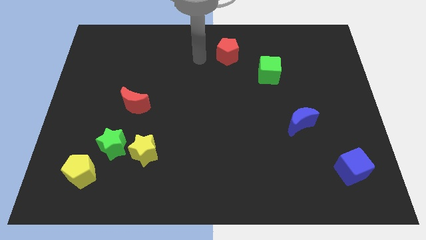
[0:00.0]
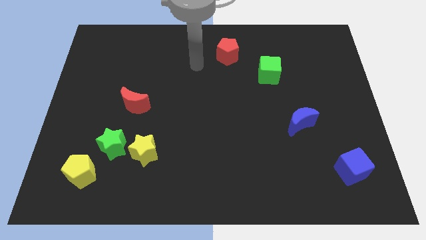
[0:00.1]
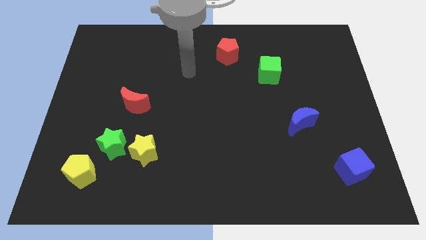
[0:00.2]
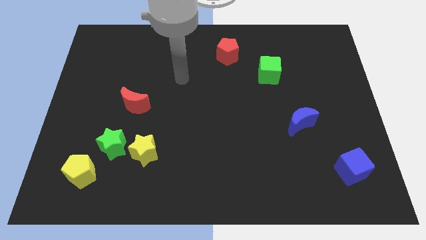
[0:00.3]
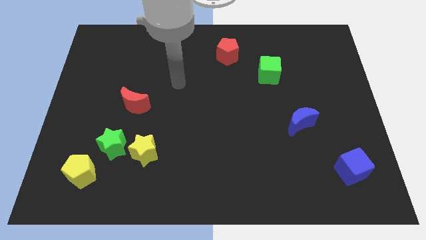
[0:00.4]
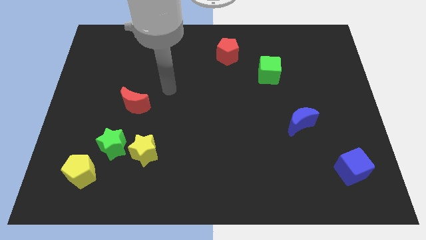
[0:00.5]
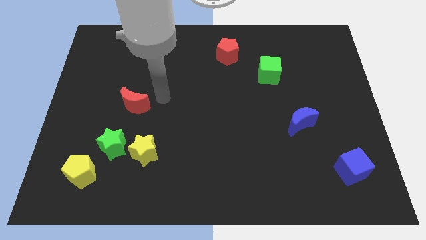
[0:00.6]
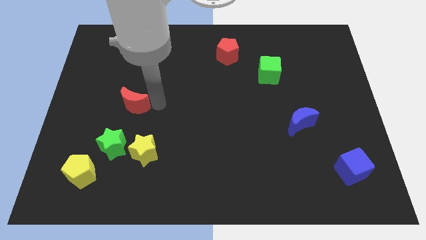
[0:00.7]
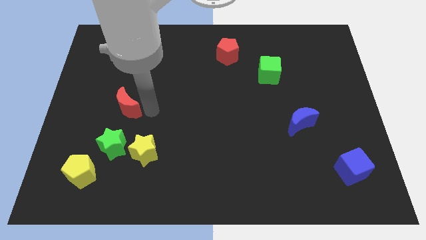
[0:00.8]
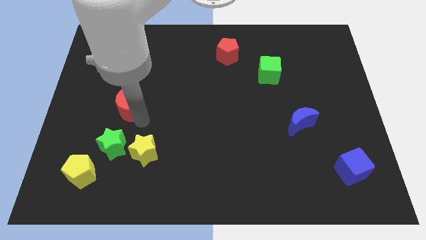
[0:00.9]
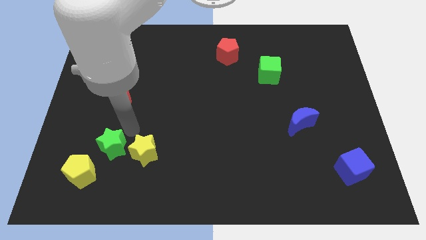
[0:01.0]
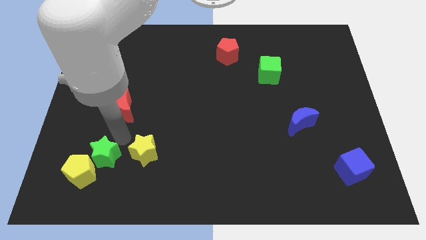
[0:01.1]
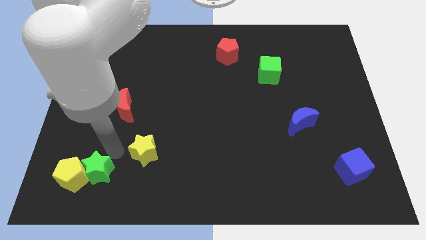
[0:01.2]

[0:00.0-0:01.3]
pull the yellow star apart from the green star

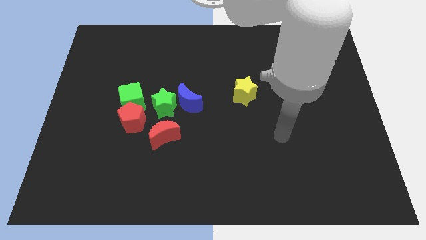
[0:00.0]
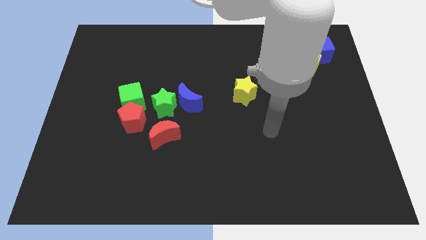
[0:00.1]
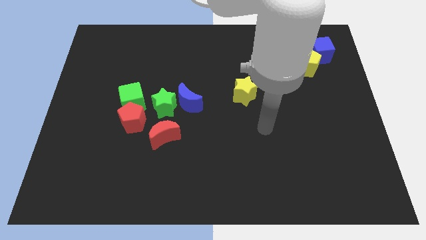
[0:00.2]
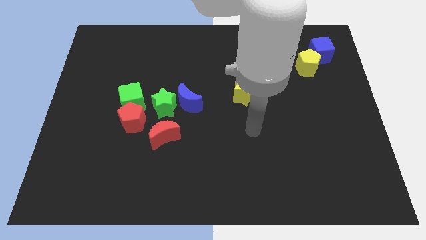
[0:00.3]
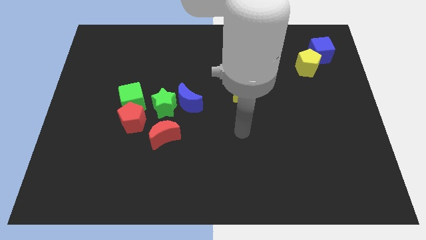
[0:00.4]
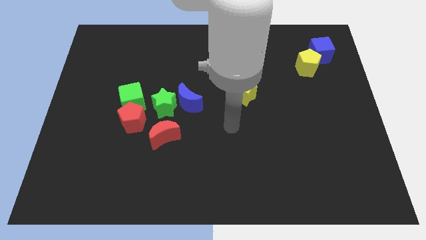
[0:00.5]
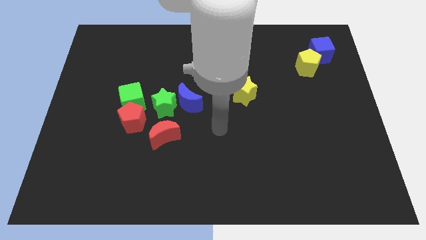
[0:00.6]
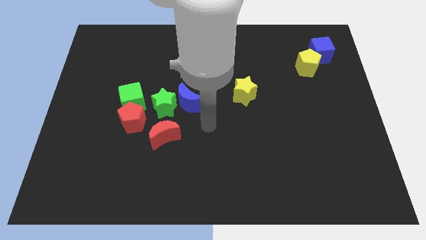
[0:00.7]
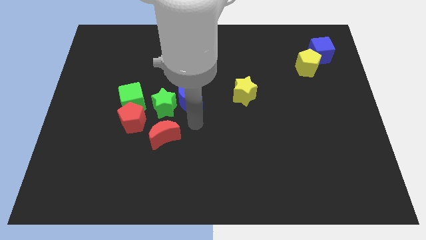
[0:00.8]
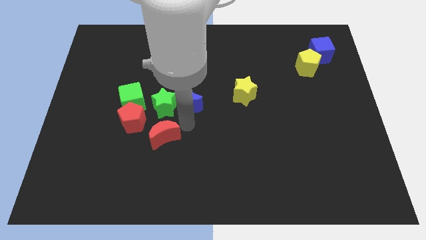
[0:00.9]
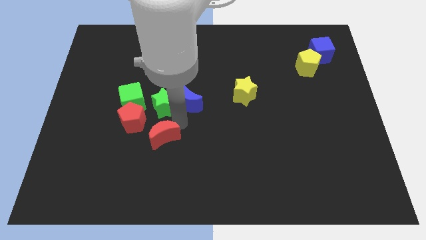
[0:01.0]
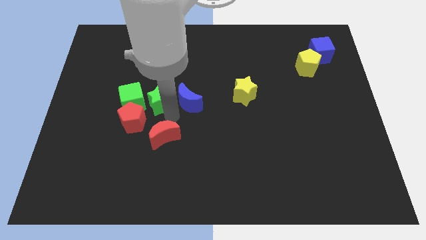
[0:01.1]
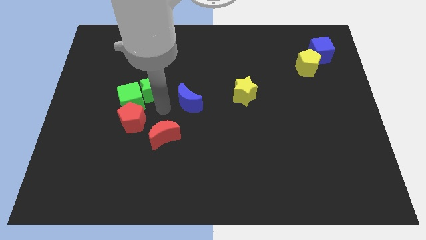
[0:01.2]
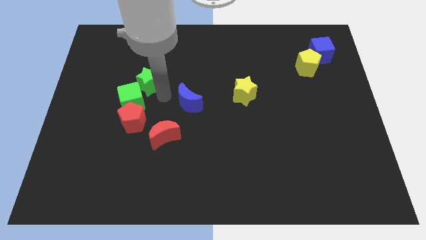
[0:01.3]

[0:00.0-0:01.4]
move the blue moon away from the green star

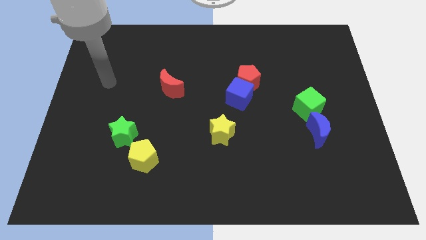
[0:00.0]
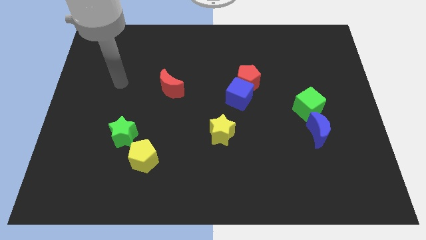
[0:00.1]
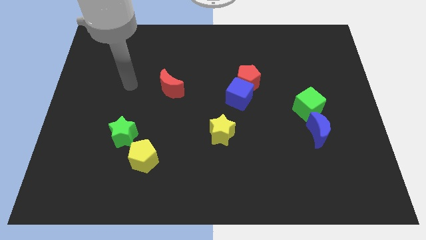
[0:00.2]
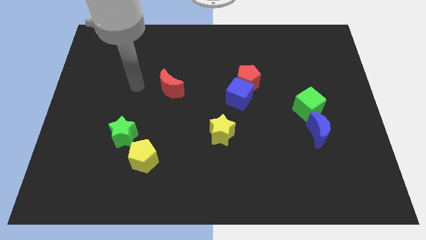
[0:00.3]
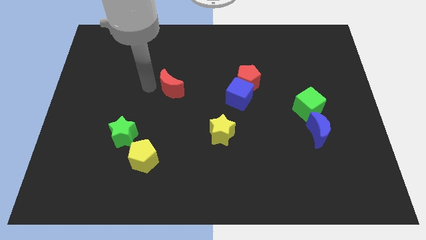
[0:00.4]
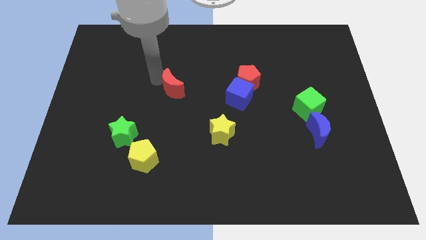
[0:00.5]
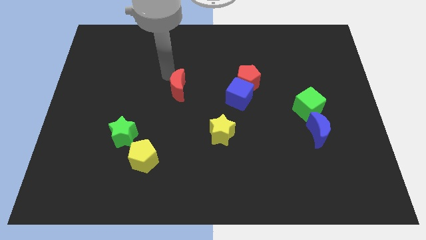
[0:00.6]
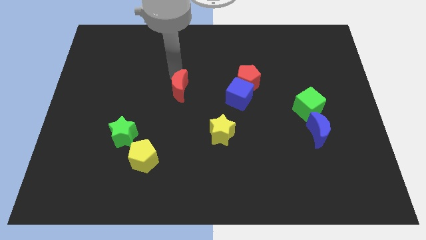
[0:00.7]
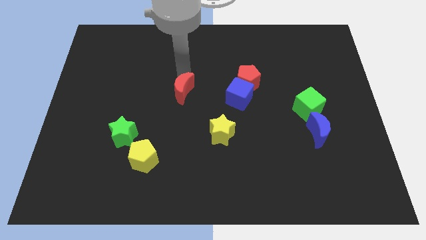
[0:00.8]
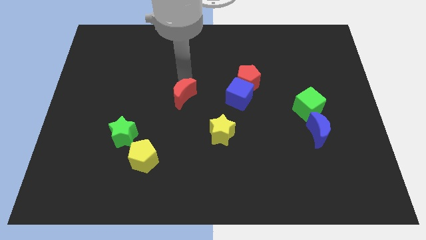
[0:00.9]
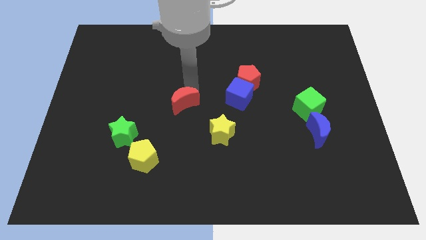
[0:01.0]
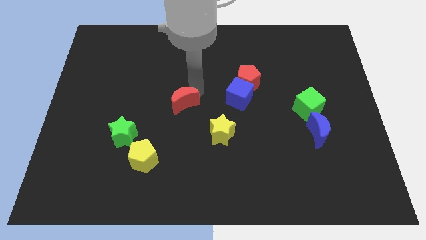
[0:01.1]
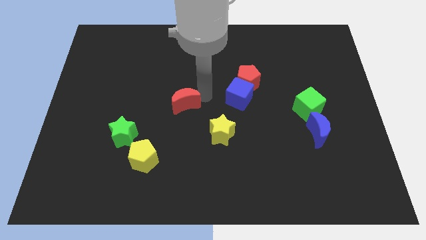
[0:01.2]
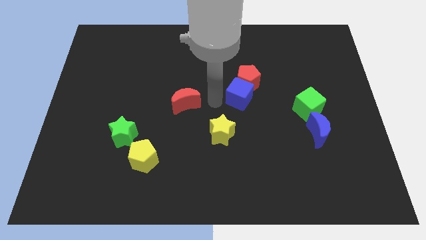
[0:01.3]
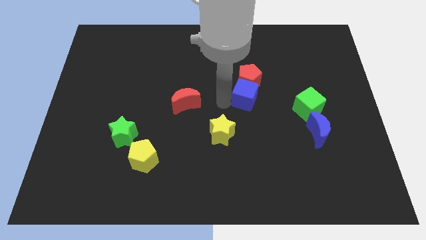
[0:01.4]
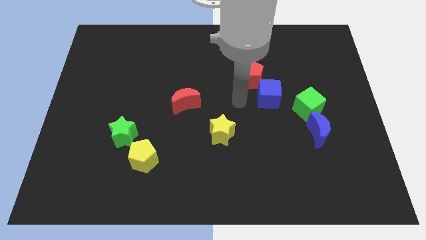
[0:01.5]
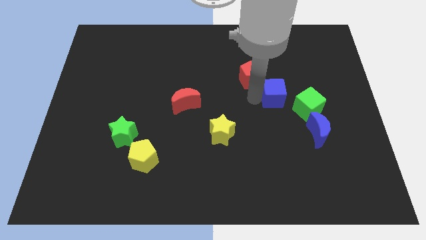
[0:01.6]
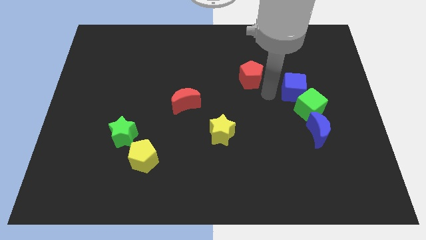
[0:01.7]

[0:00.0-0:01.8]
pull the red pentagon apart from the blue cube

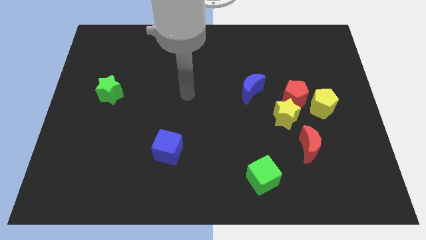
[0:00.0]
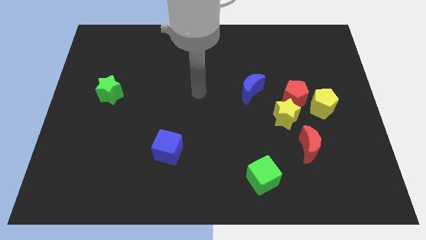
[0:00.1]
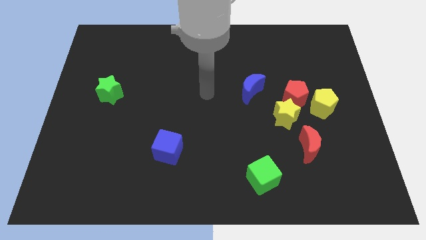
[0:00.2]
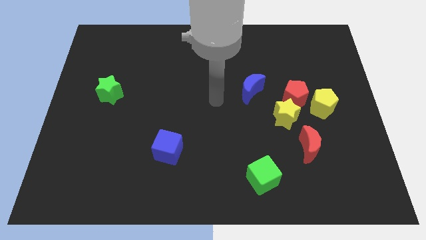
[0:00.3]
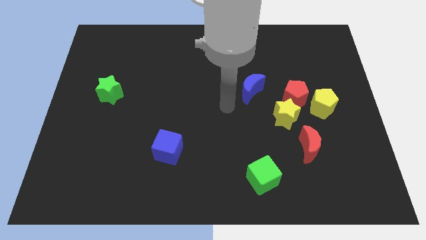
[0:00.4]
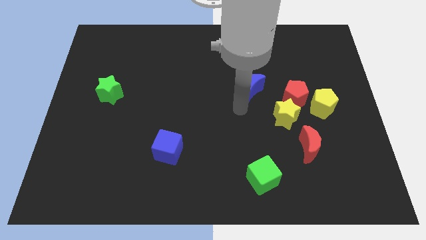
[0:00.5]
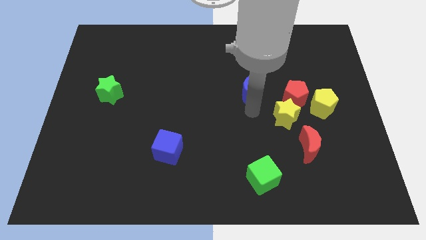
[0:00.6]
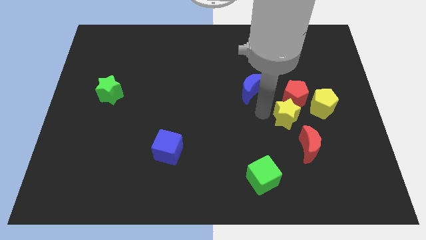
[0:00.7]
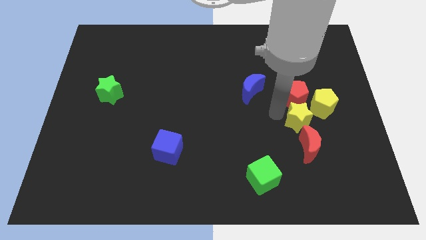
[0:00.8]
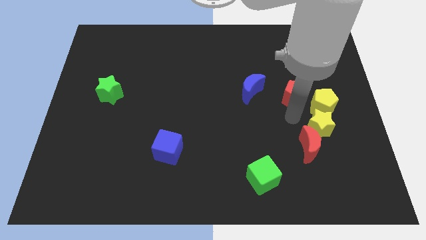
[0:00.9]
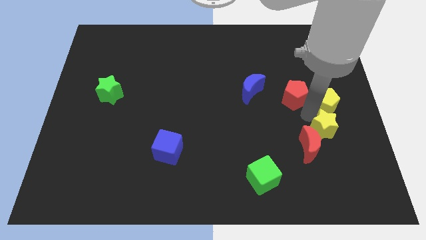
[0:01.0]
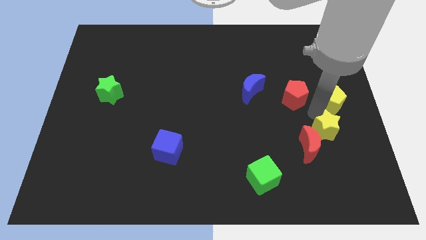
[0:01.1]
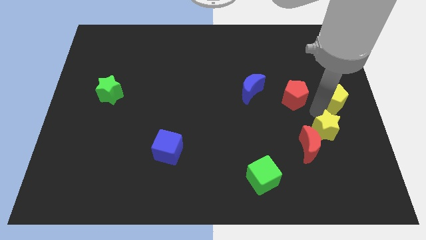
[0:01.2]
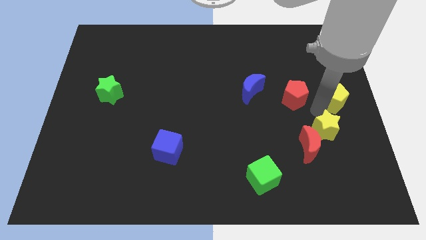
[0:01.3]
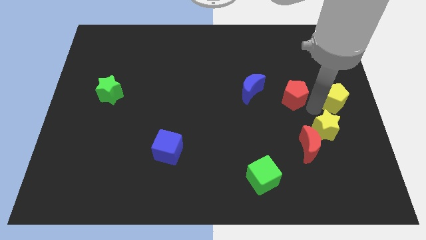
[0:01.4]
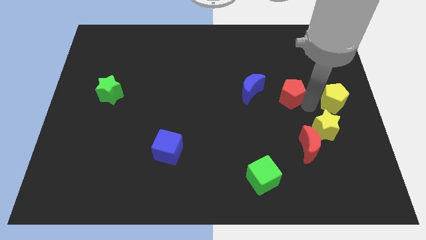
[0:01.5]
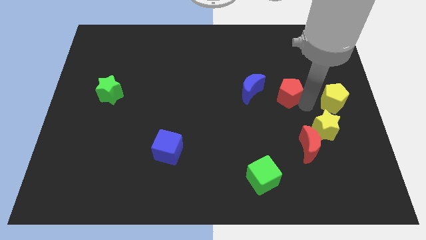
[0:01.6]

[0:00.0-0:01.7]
separate the red pentagon from the yellow star and yellow pentagon

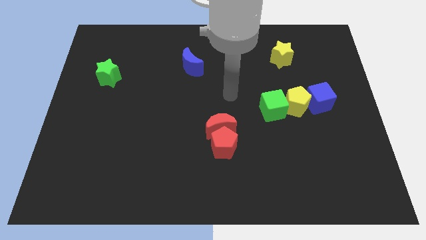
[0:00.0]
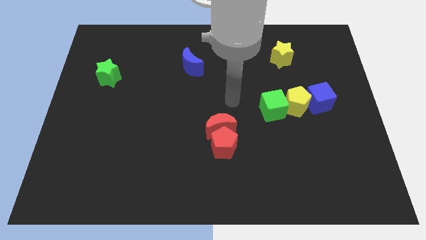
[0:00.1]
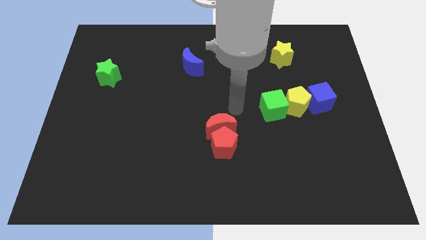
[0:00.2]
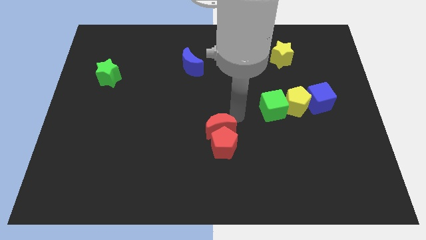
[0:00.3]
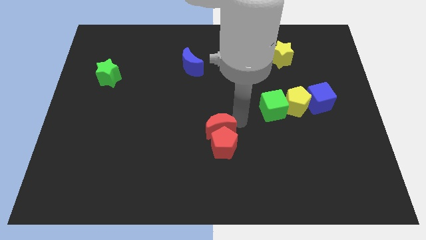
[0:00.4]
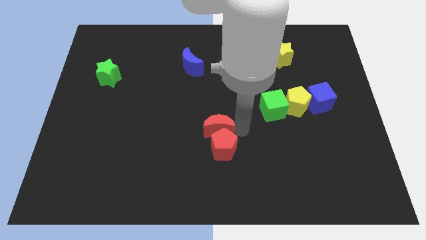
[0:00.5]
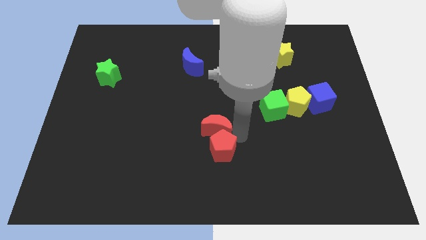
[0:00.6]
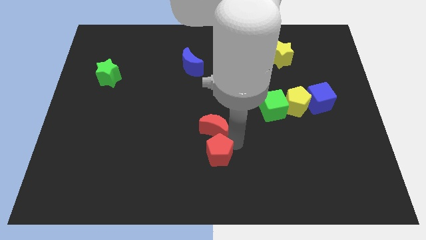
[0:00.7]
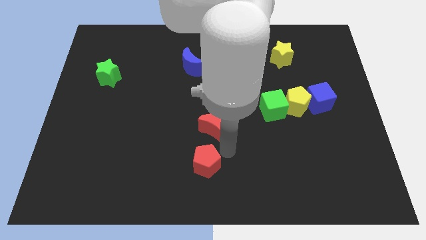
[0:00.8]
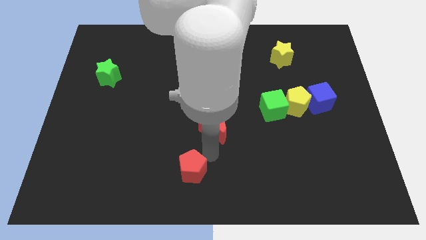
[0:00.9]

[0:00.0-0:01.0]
separate the red moon from the red pentagon

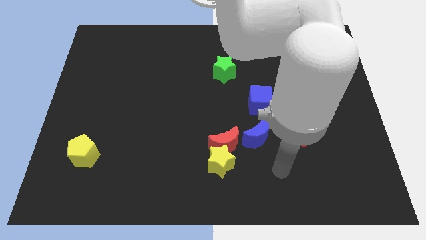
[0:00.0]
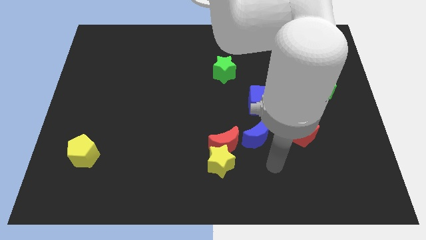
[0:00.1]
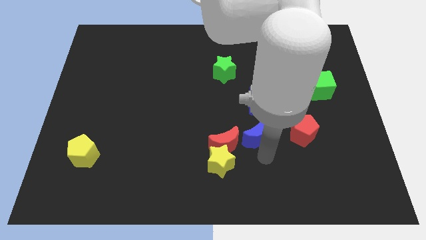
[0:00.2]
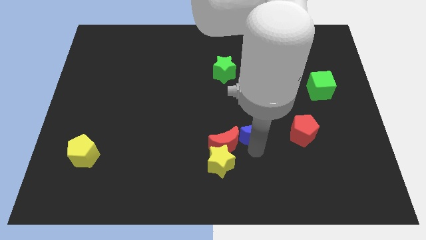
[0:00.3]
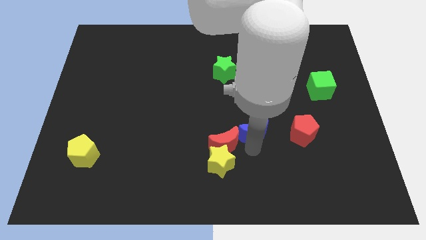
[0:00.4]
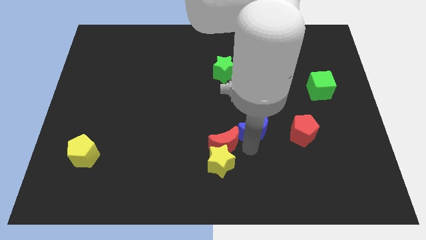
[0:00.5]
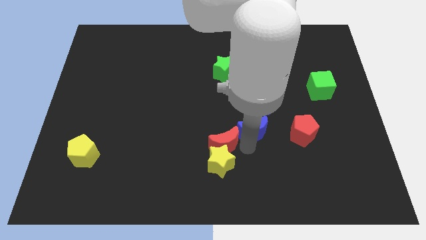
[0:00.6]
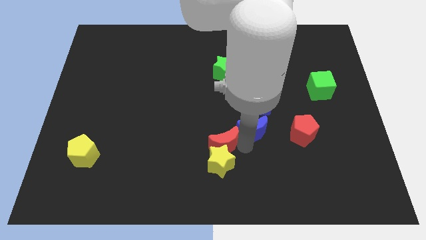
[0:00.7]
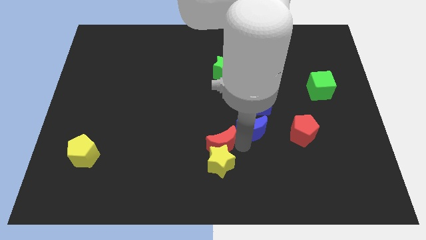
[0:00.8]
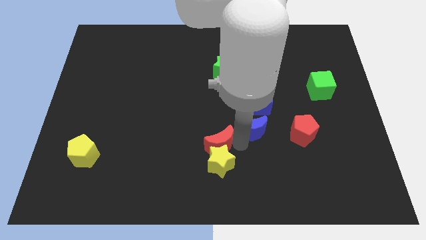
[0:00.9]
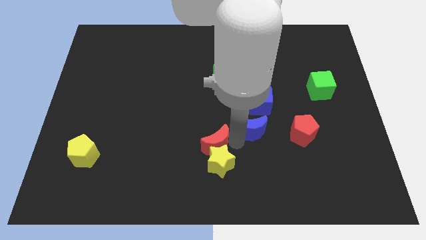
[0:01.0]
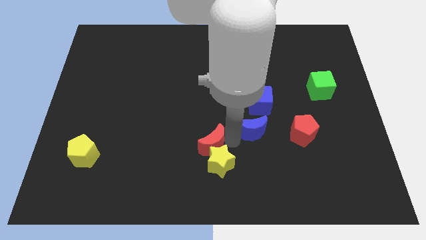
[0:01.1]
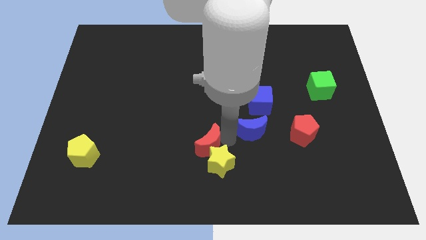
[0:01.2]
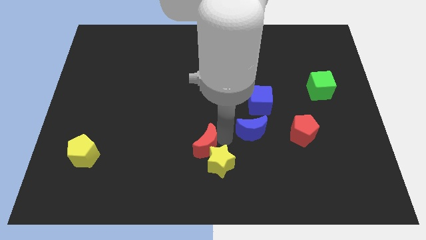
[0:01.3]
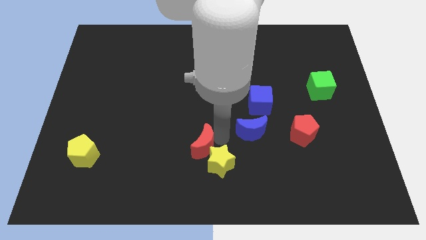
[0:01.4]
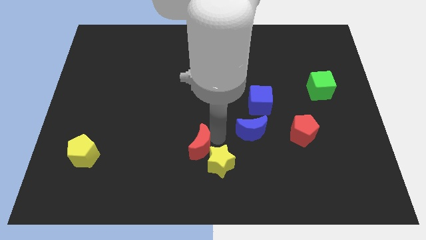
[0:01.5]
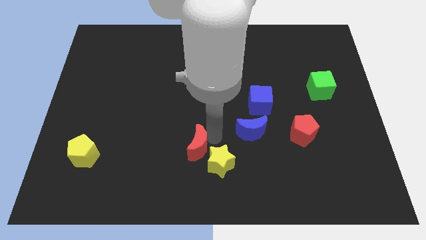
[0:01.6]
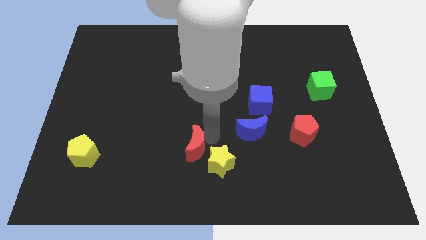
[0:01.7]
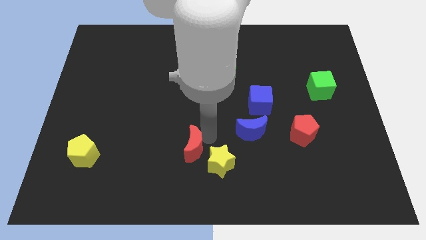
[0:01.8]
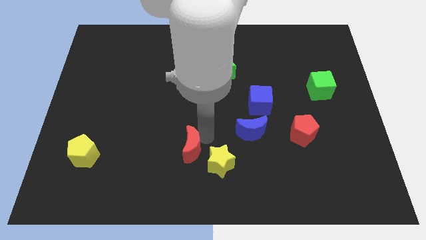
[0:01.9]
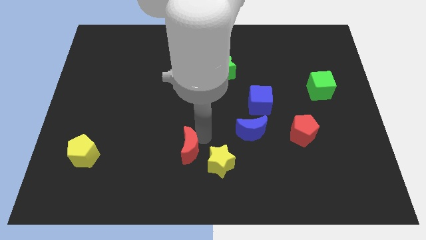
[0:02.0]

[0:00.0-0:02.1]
separate the red moon from the yellow star and blue moon
